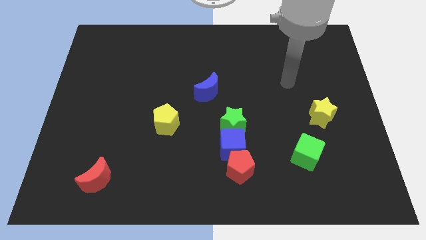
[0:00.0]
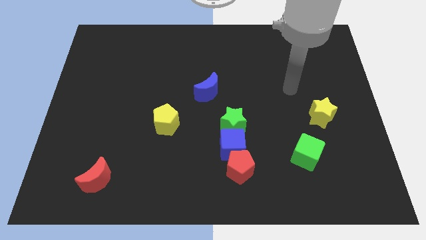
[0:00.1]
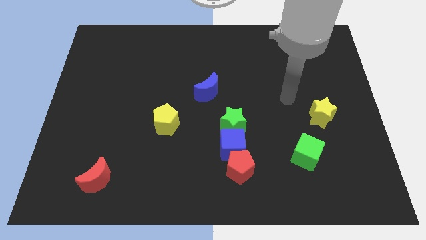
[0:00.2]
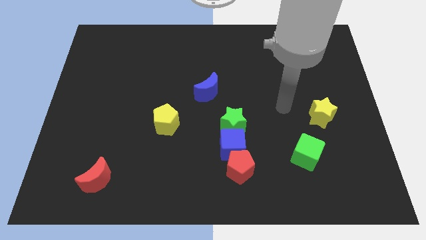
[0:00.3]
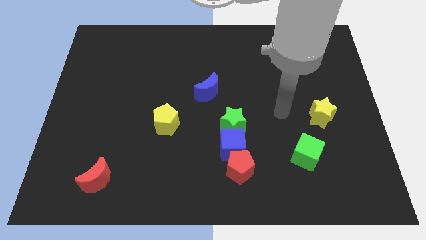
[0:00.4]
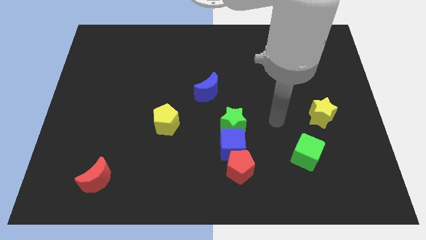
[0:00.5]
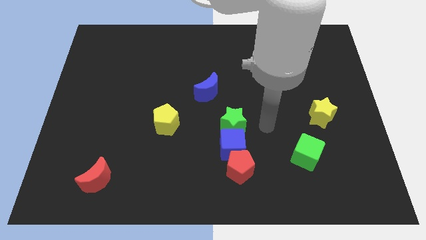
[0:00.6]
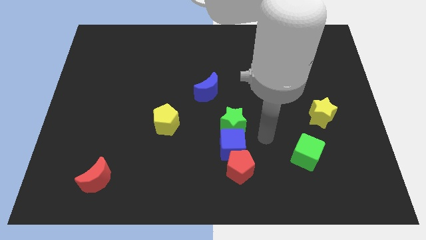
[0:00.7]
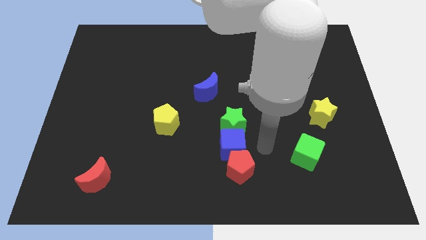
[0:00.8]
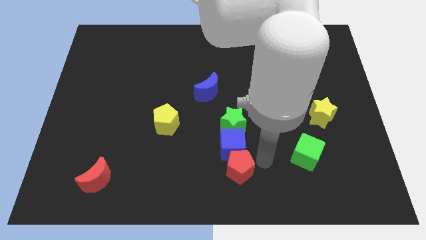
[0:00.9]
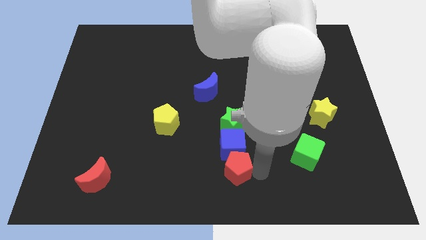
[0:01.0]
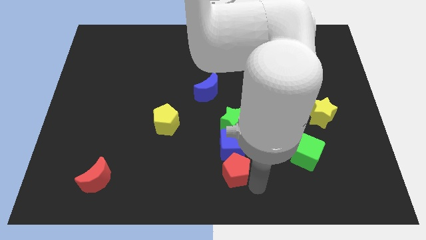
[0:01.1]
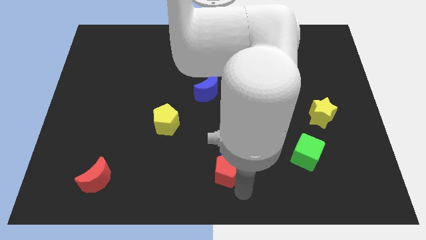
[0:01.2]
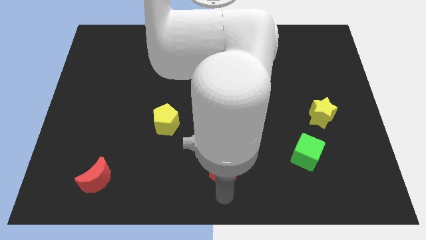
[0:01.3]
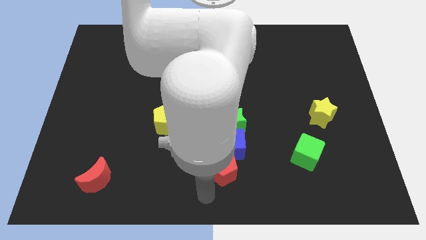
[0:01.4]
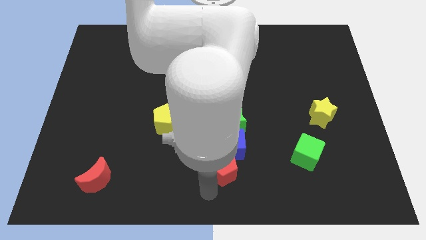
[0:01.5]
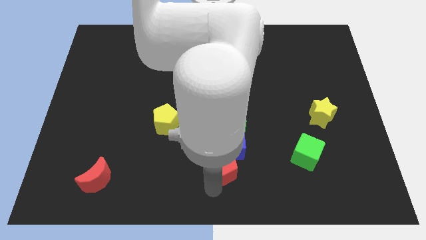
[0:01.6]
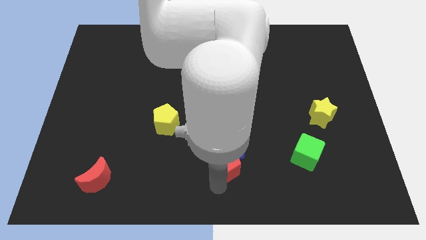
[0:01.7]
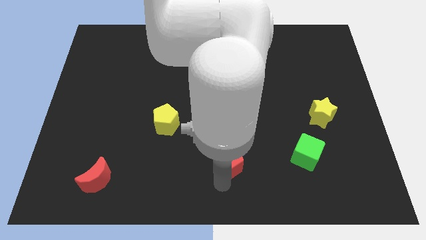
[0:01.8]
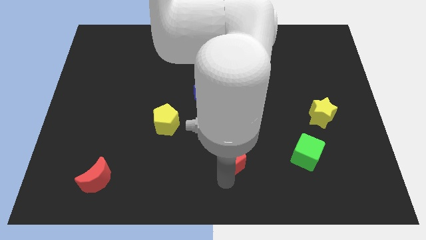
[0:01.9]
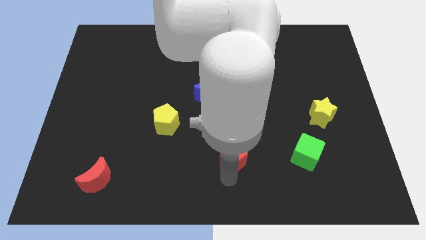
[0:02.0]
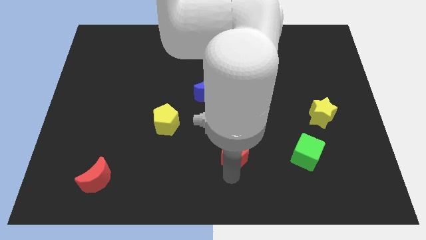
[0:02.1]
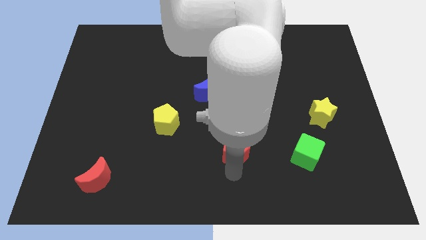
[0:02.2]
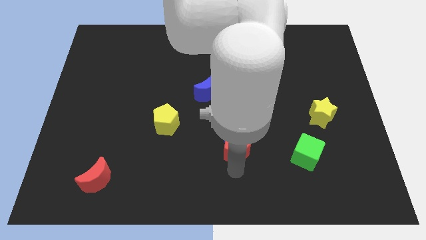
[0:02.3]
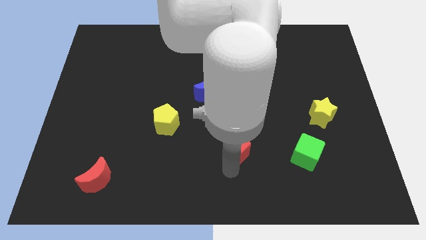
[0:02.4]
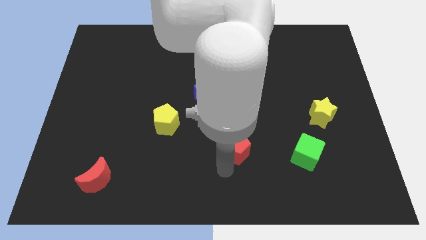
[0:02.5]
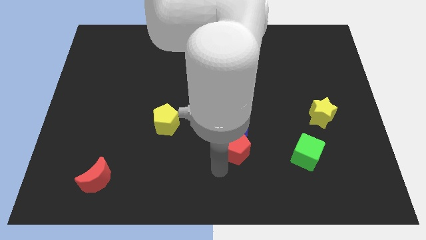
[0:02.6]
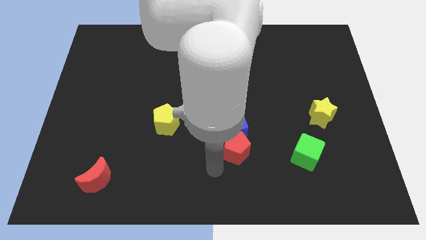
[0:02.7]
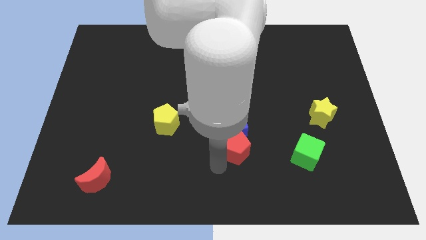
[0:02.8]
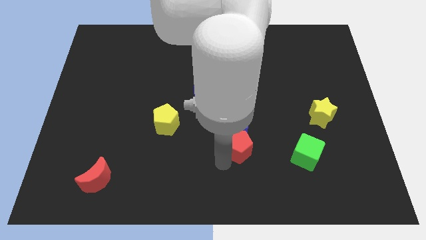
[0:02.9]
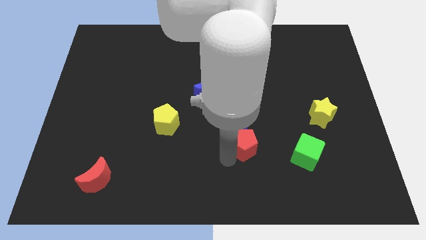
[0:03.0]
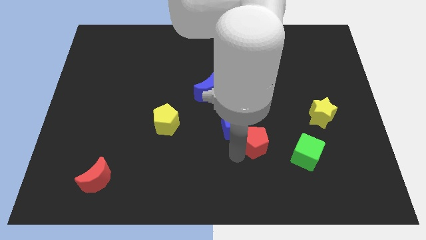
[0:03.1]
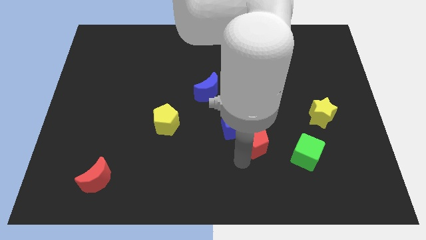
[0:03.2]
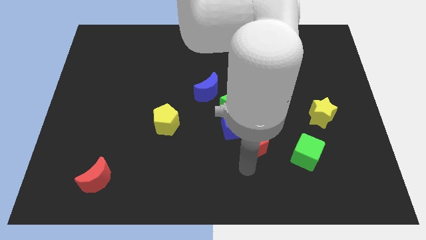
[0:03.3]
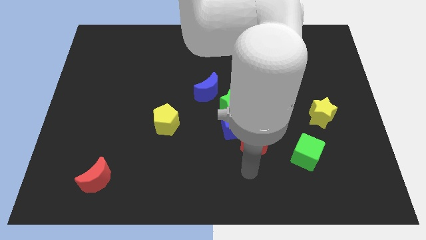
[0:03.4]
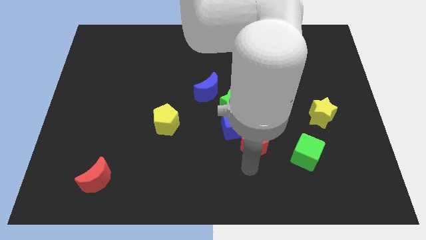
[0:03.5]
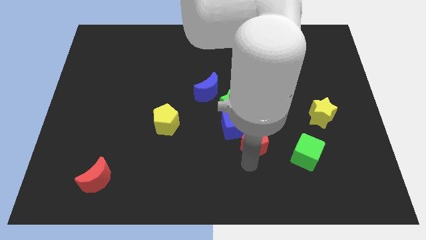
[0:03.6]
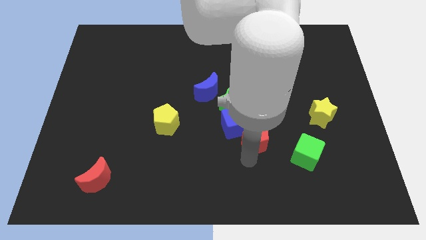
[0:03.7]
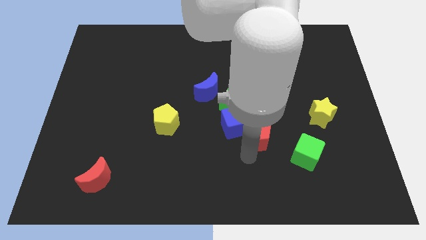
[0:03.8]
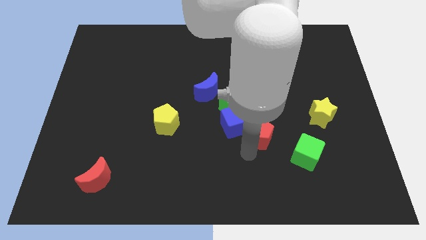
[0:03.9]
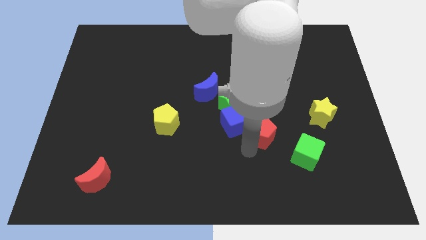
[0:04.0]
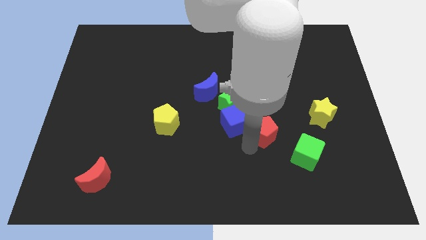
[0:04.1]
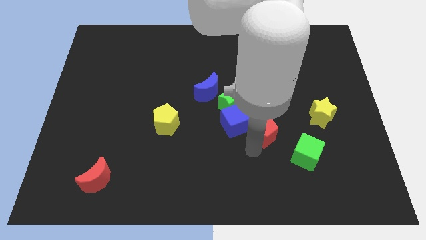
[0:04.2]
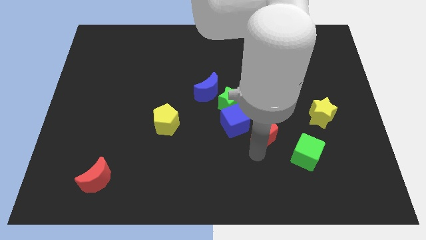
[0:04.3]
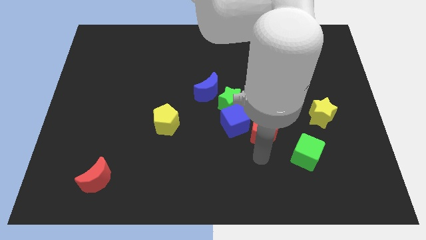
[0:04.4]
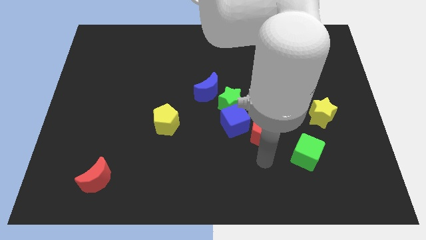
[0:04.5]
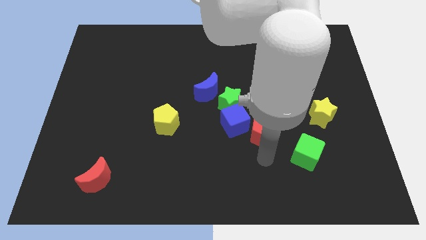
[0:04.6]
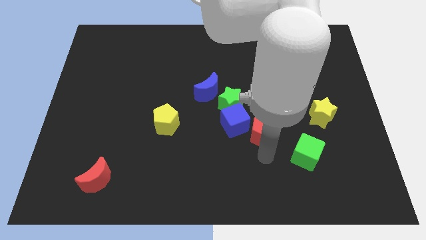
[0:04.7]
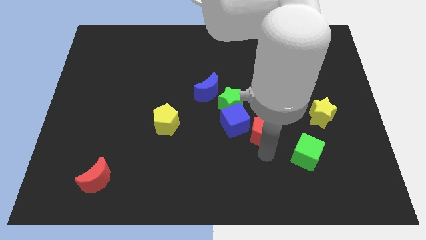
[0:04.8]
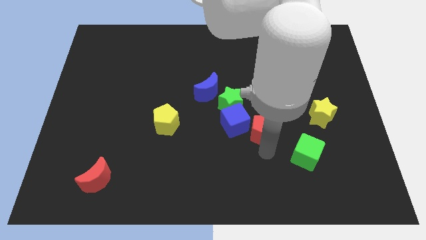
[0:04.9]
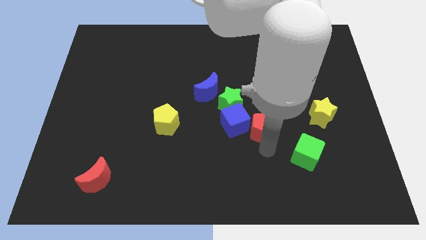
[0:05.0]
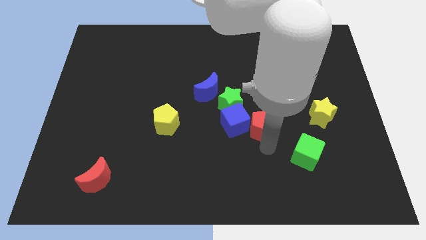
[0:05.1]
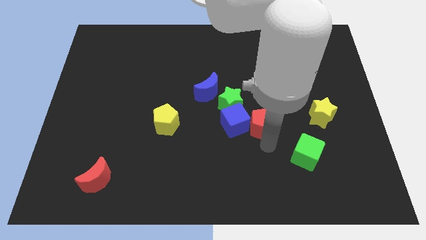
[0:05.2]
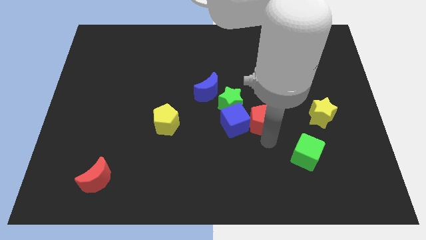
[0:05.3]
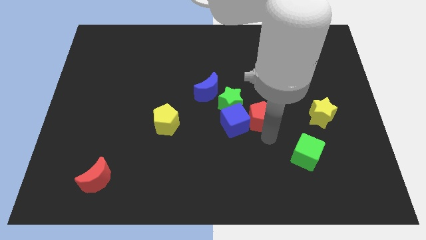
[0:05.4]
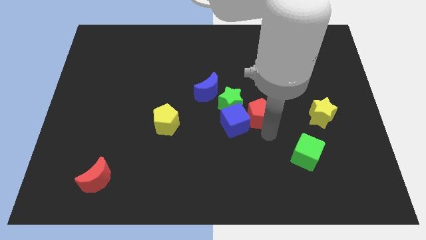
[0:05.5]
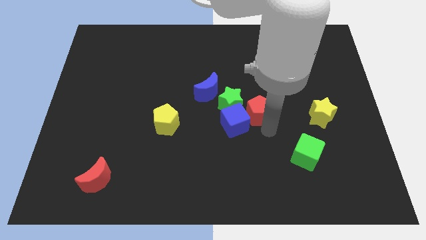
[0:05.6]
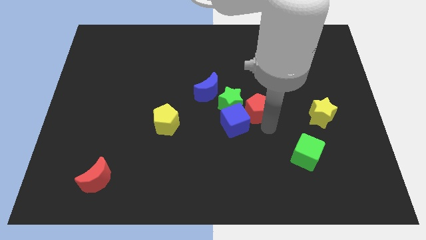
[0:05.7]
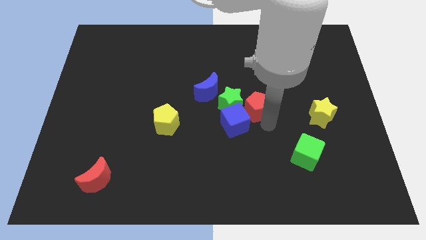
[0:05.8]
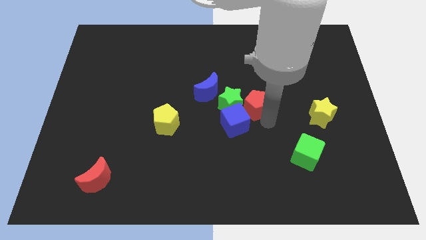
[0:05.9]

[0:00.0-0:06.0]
move the red pentagon right of the blue moon

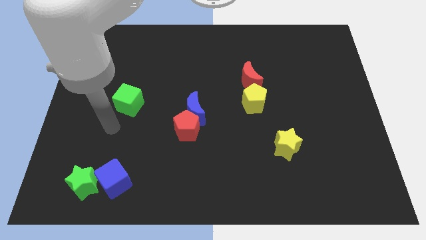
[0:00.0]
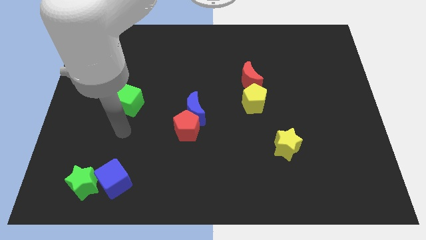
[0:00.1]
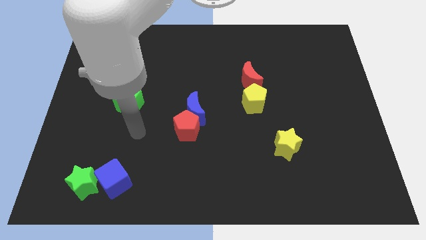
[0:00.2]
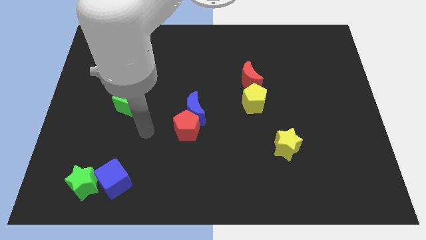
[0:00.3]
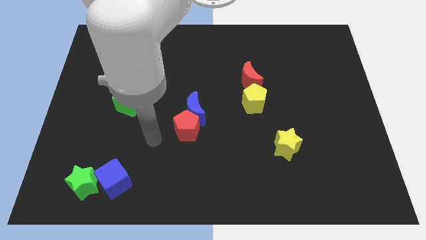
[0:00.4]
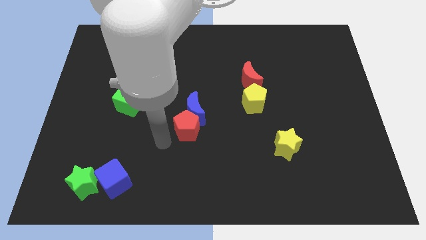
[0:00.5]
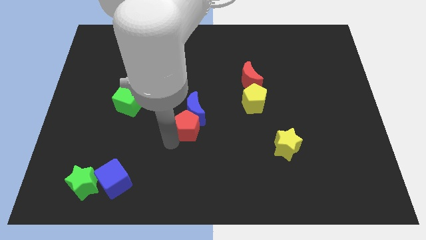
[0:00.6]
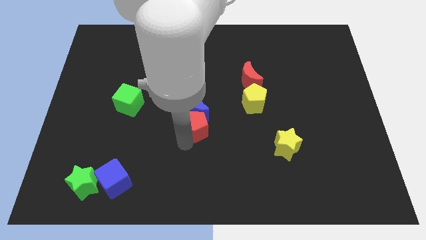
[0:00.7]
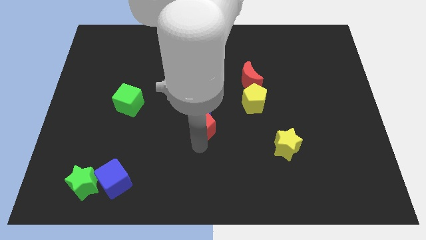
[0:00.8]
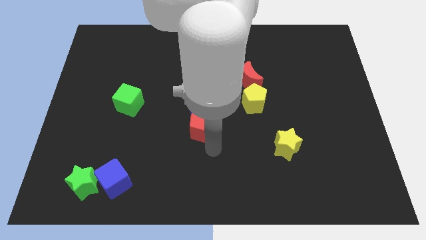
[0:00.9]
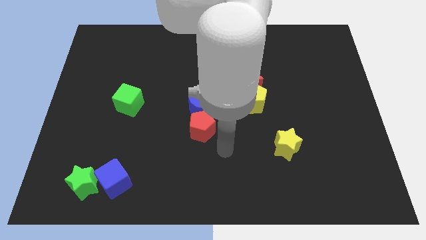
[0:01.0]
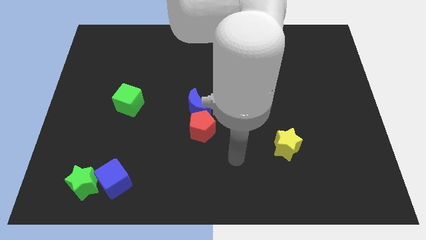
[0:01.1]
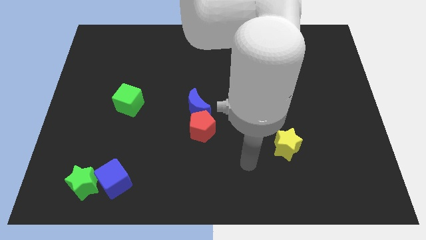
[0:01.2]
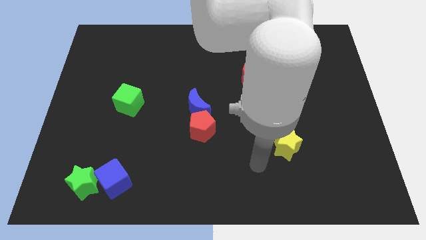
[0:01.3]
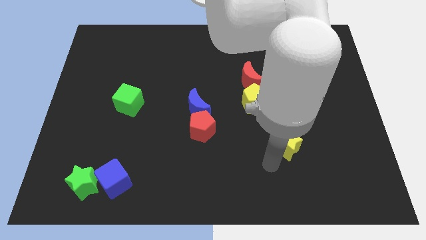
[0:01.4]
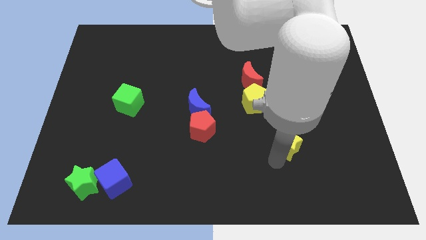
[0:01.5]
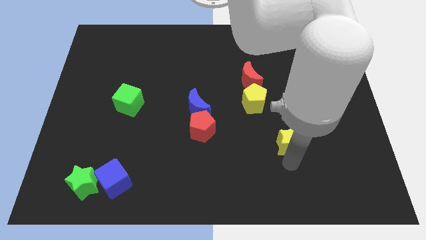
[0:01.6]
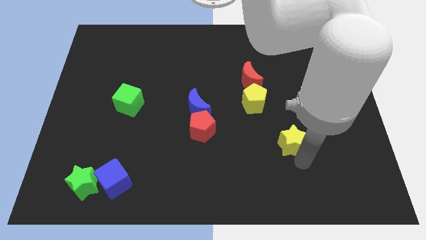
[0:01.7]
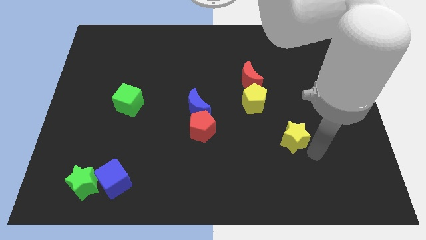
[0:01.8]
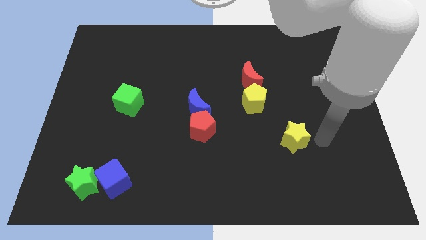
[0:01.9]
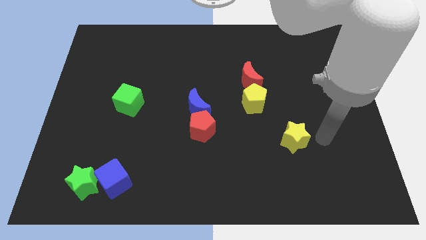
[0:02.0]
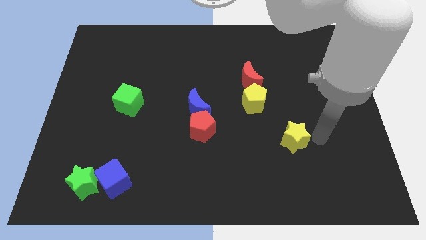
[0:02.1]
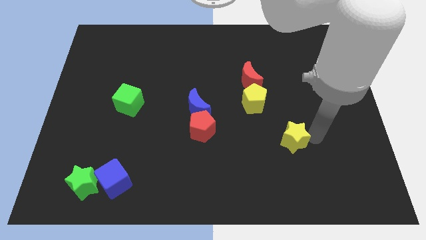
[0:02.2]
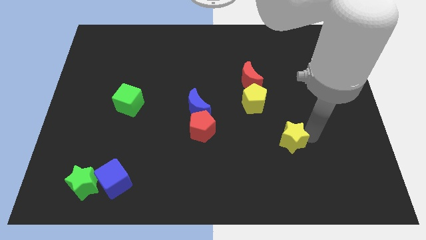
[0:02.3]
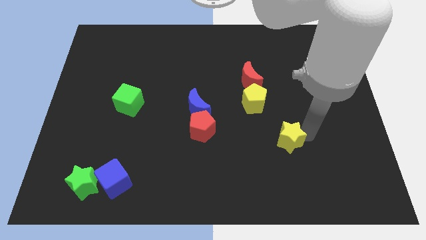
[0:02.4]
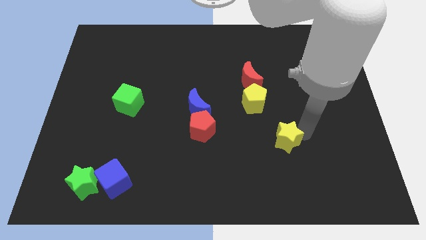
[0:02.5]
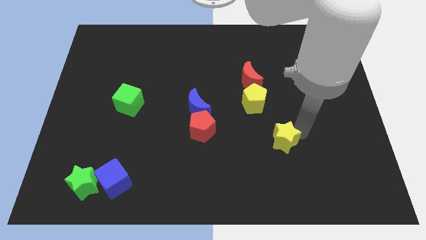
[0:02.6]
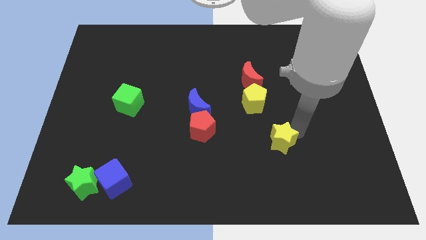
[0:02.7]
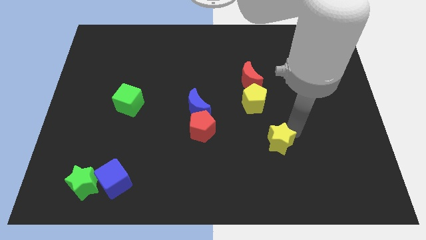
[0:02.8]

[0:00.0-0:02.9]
move the yellow star below the yellow pentagon
